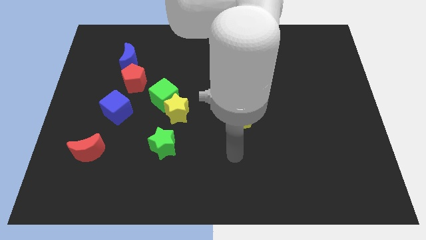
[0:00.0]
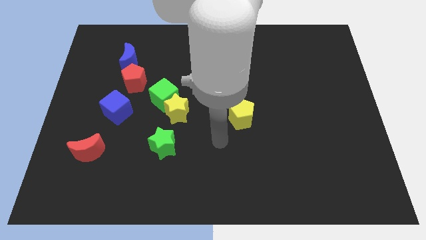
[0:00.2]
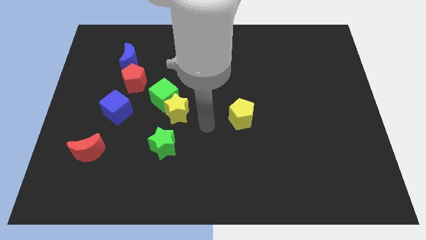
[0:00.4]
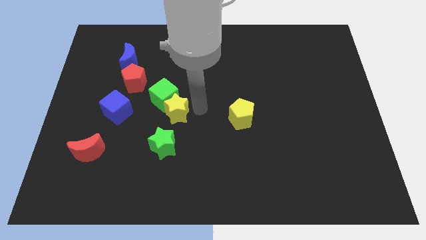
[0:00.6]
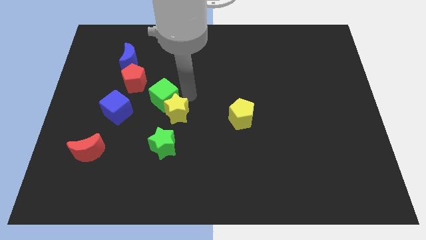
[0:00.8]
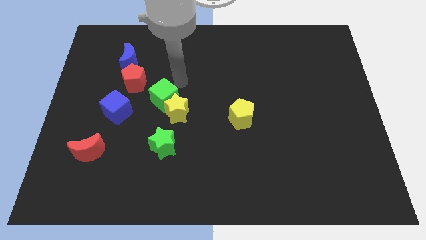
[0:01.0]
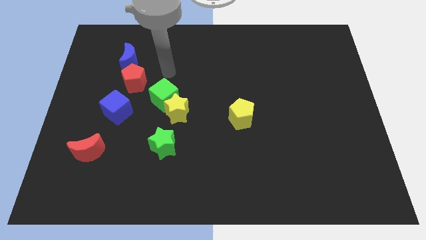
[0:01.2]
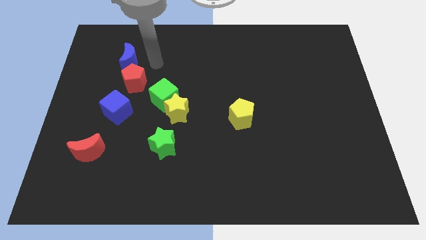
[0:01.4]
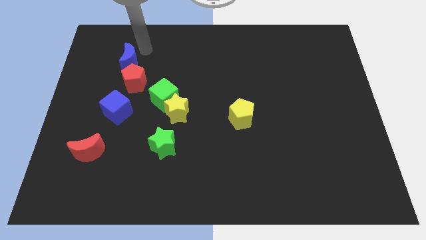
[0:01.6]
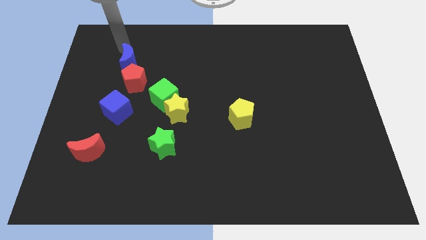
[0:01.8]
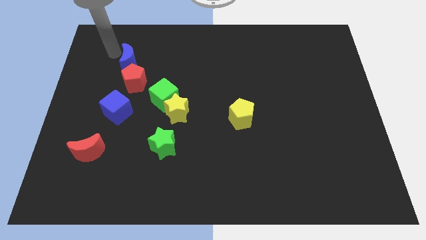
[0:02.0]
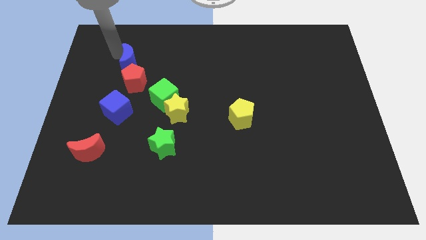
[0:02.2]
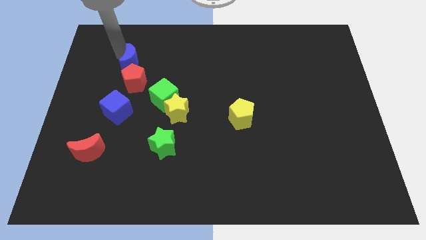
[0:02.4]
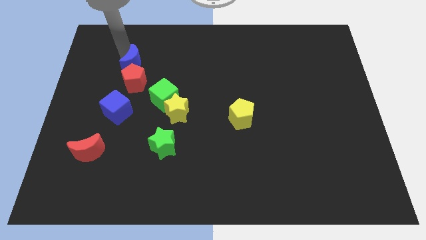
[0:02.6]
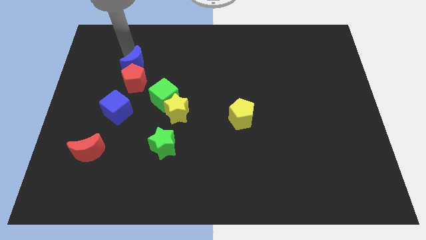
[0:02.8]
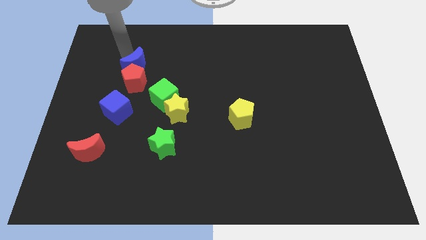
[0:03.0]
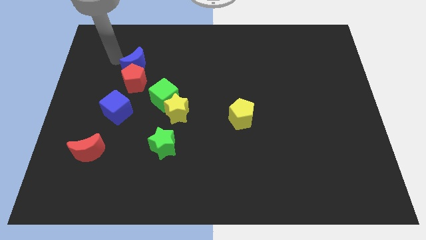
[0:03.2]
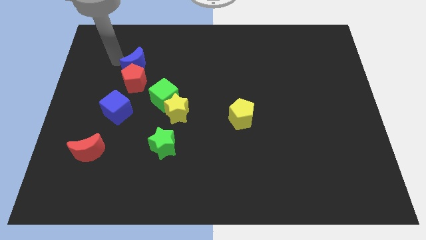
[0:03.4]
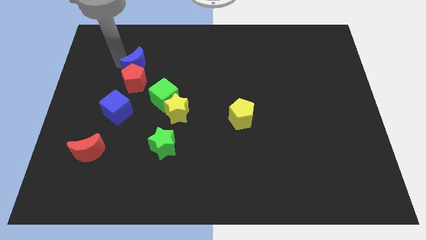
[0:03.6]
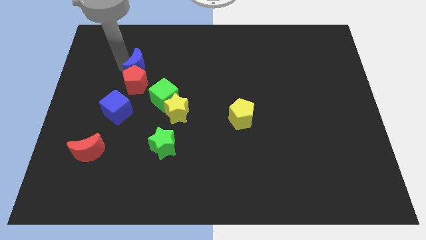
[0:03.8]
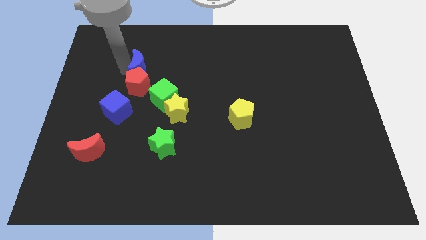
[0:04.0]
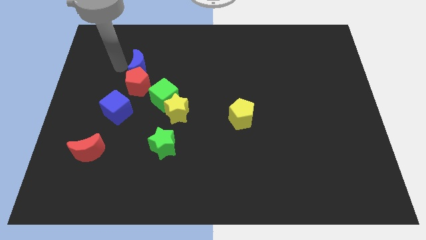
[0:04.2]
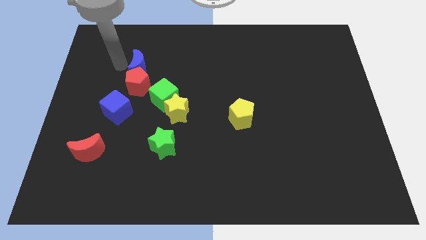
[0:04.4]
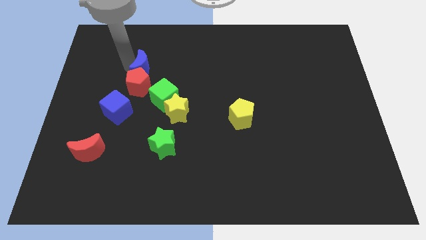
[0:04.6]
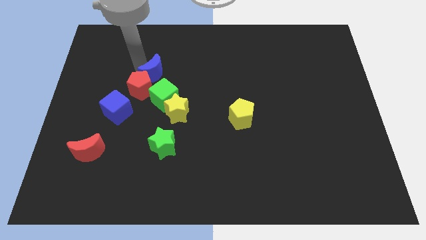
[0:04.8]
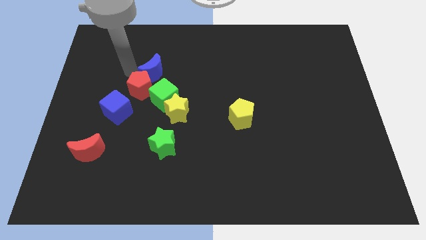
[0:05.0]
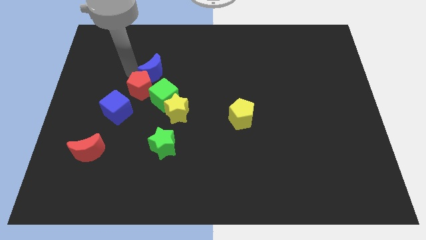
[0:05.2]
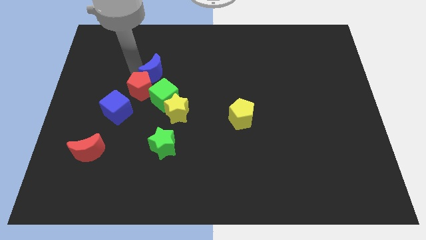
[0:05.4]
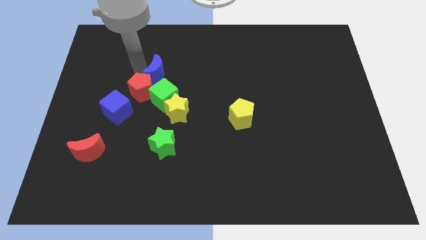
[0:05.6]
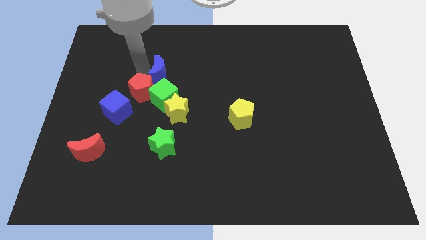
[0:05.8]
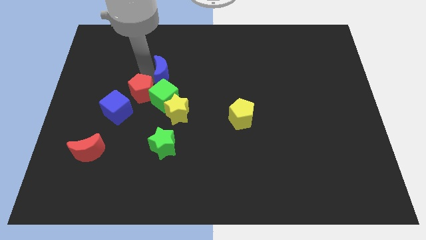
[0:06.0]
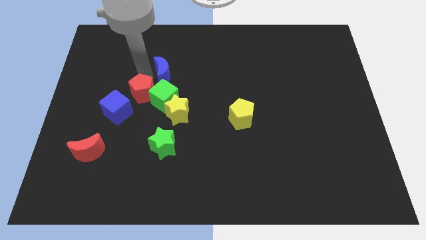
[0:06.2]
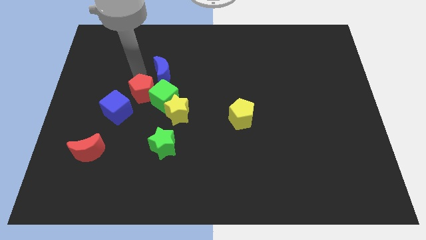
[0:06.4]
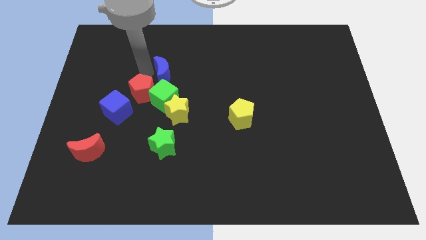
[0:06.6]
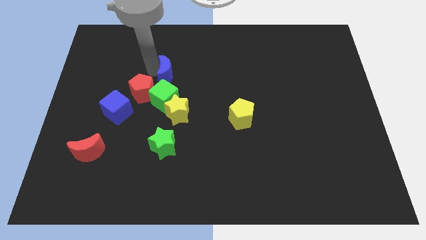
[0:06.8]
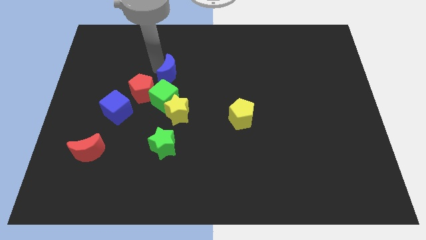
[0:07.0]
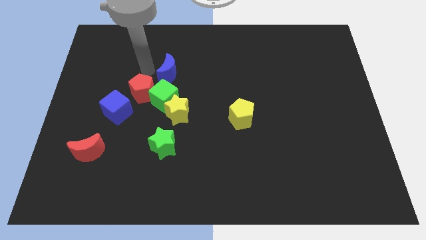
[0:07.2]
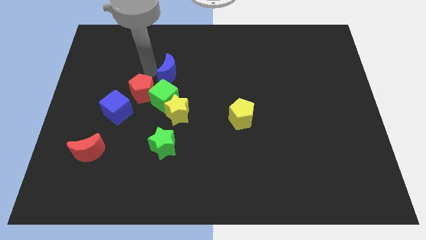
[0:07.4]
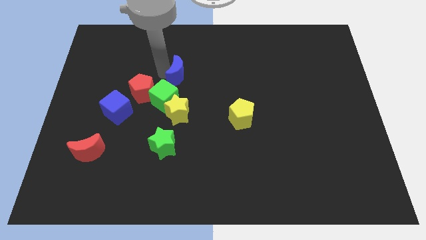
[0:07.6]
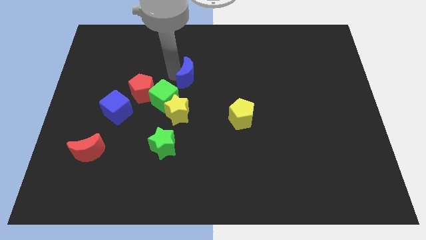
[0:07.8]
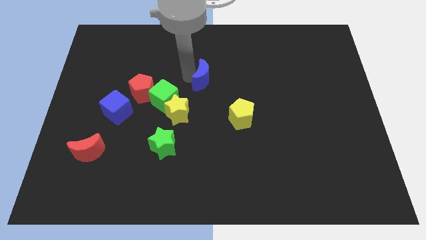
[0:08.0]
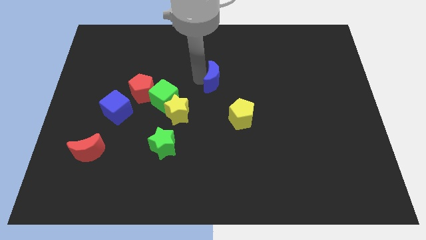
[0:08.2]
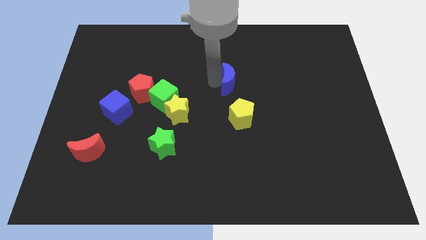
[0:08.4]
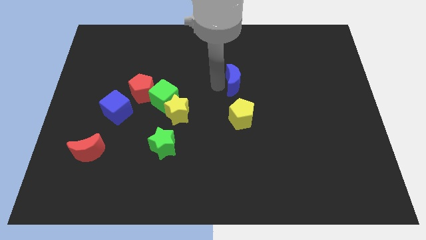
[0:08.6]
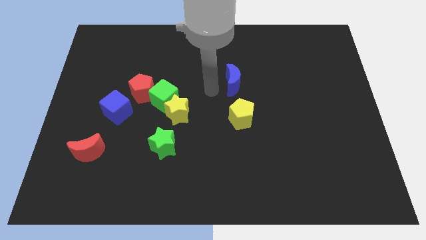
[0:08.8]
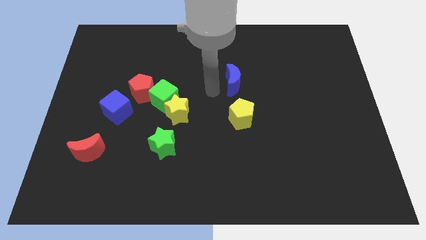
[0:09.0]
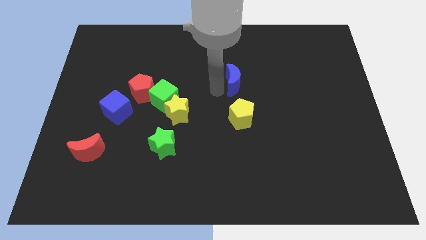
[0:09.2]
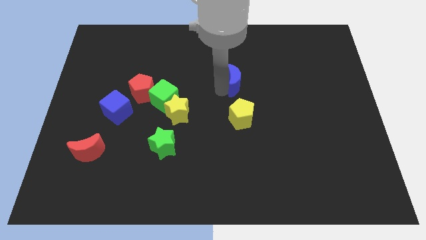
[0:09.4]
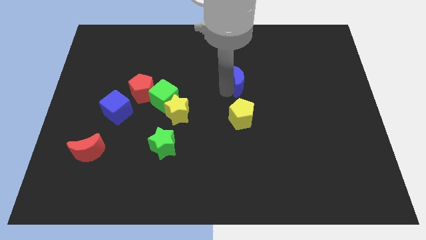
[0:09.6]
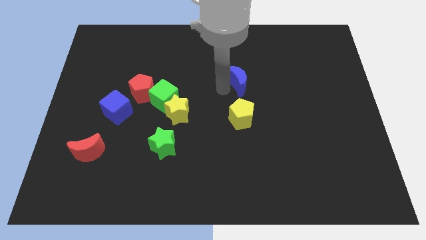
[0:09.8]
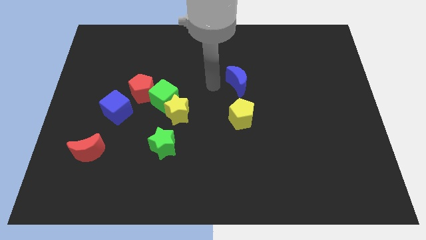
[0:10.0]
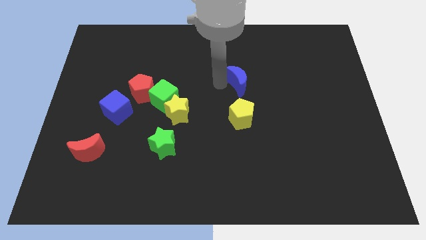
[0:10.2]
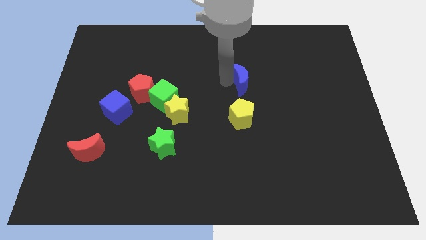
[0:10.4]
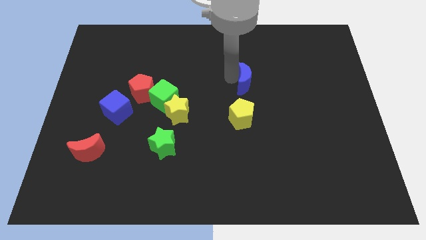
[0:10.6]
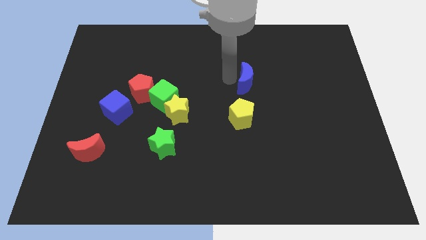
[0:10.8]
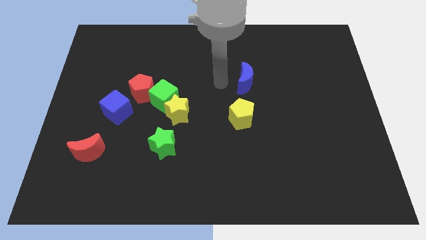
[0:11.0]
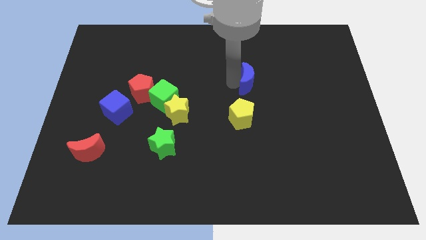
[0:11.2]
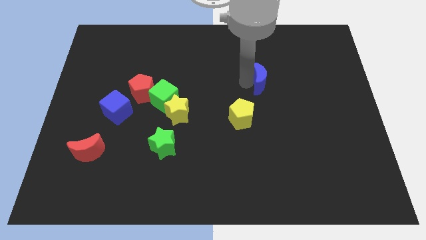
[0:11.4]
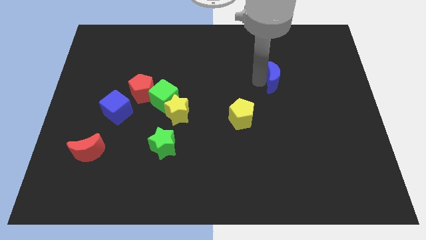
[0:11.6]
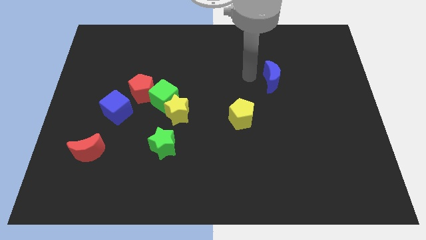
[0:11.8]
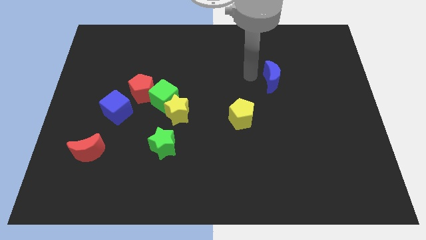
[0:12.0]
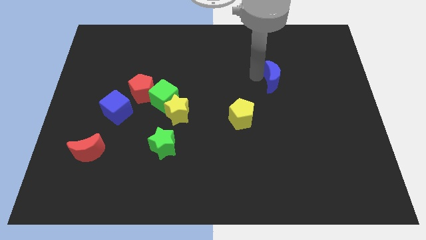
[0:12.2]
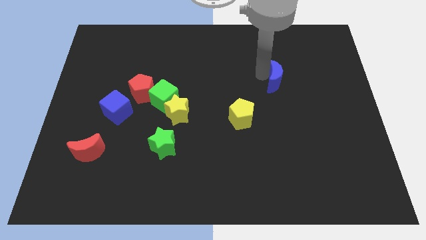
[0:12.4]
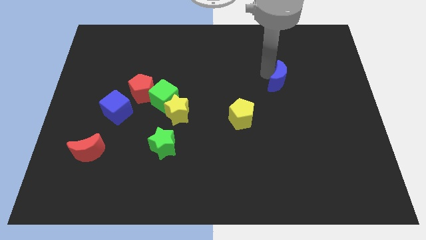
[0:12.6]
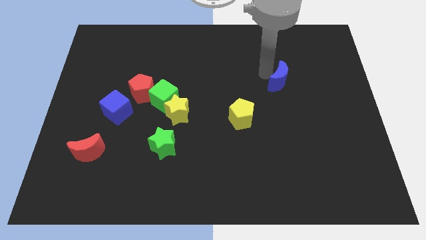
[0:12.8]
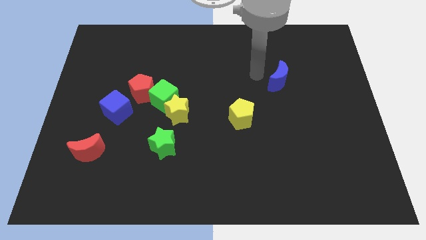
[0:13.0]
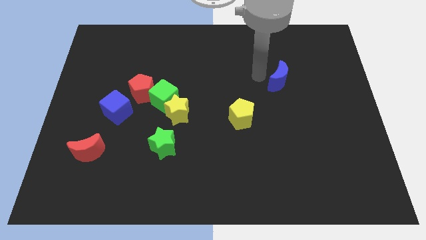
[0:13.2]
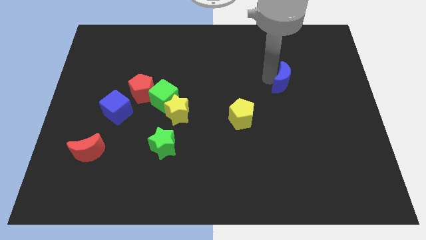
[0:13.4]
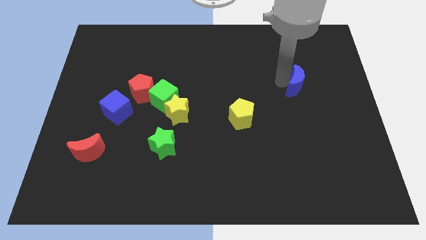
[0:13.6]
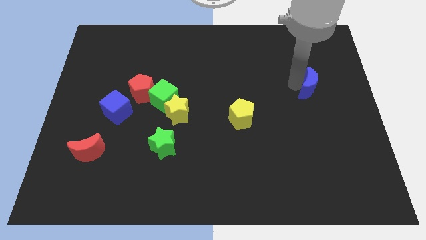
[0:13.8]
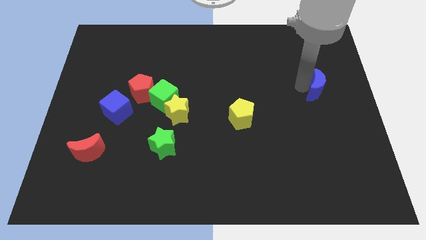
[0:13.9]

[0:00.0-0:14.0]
put the blue moon to the center right

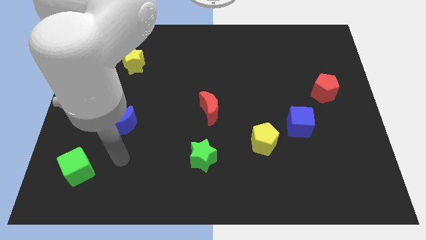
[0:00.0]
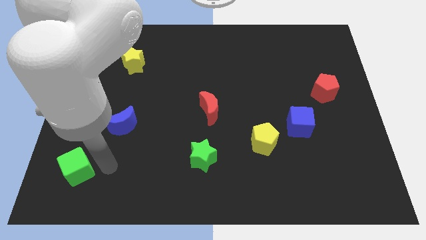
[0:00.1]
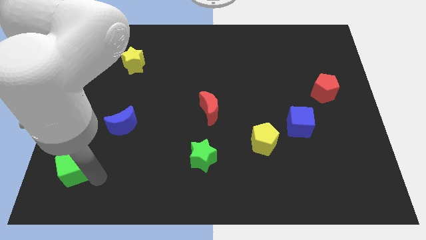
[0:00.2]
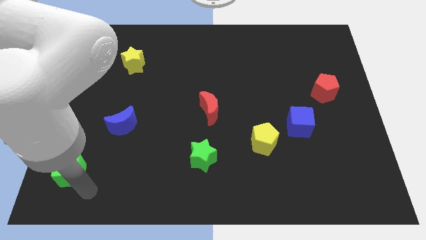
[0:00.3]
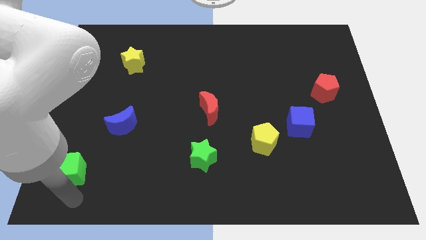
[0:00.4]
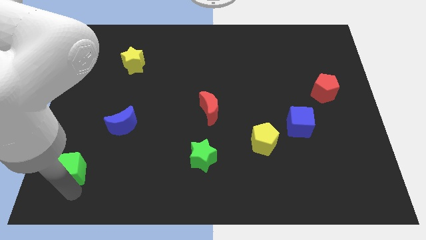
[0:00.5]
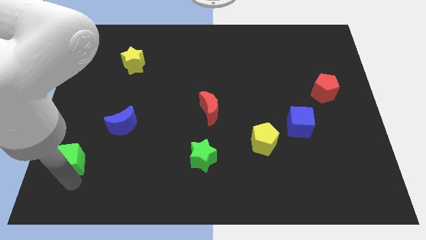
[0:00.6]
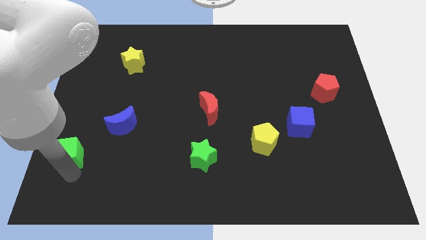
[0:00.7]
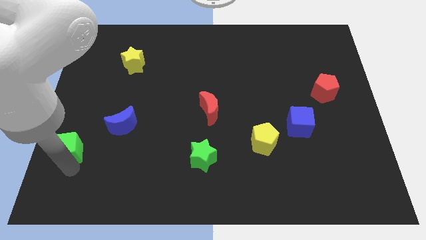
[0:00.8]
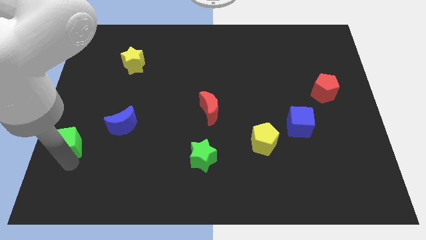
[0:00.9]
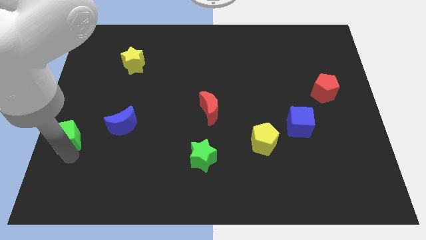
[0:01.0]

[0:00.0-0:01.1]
move the green cube to the center left
